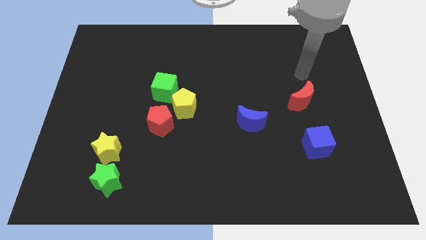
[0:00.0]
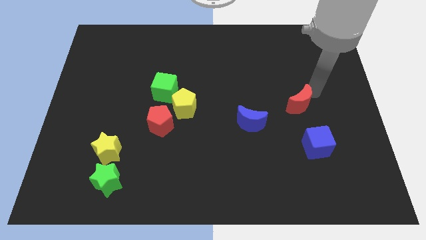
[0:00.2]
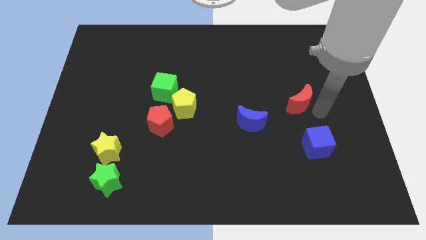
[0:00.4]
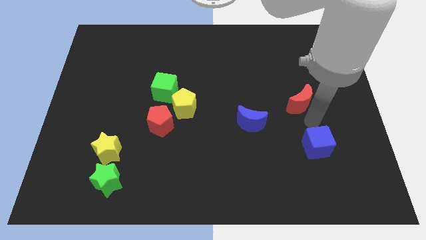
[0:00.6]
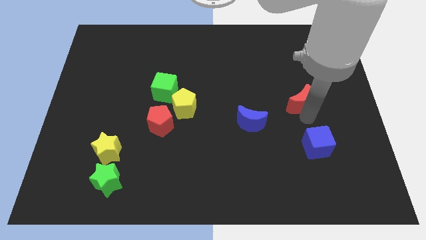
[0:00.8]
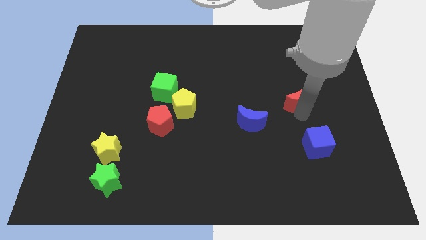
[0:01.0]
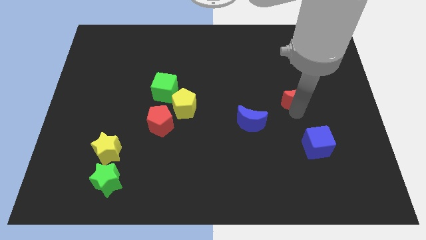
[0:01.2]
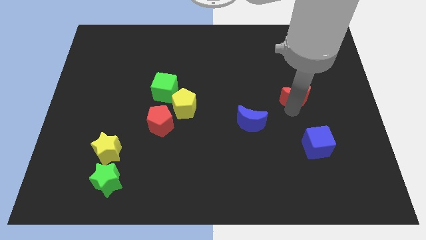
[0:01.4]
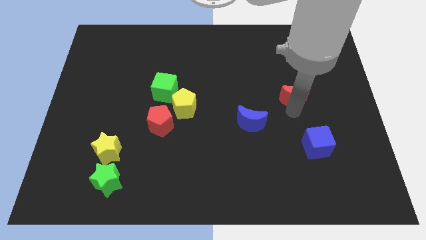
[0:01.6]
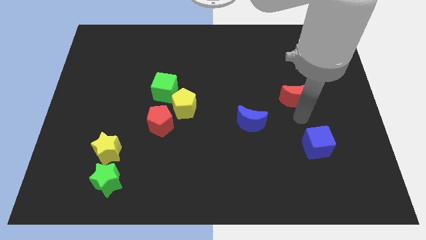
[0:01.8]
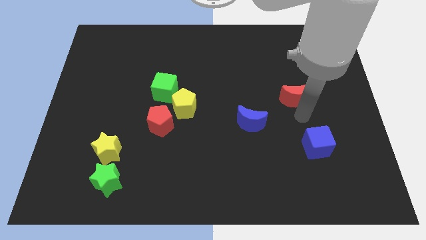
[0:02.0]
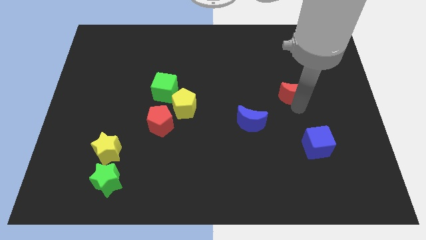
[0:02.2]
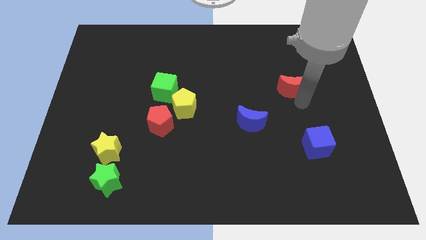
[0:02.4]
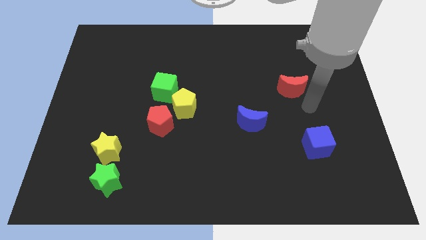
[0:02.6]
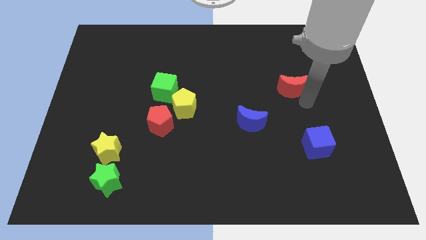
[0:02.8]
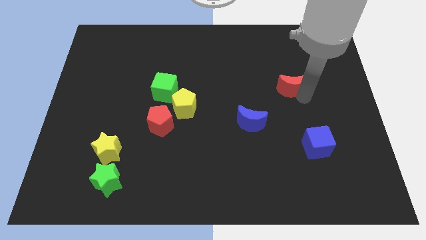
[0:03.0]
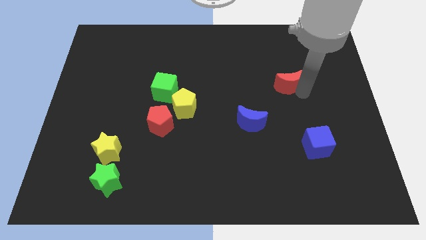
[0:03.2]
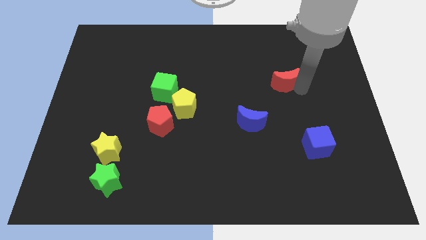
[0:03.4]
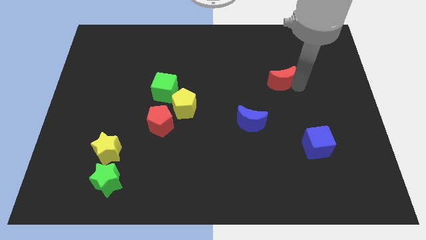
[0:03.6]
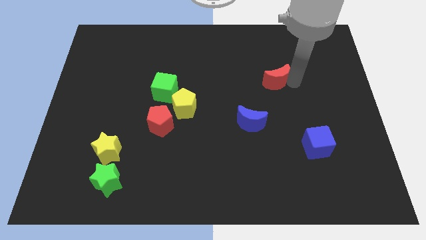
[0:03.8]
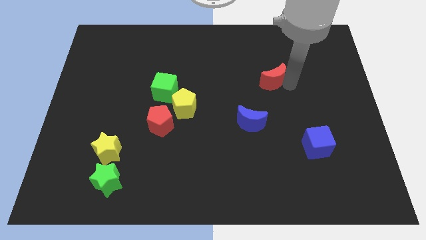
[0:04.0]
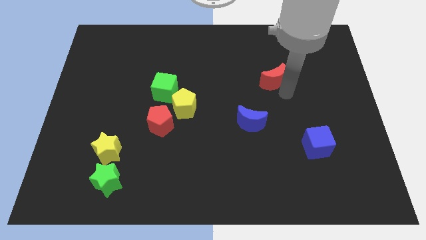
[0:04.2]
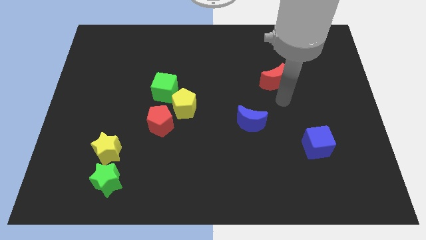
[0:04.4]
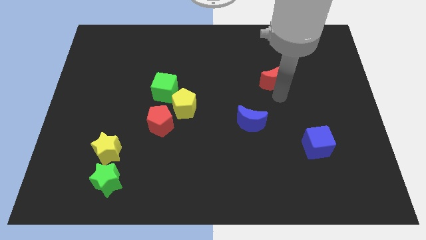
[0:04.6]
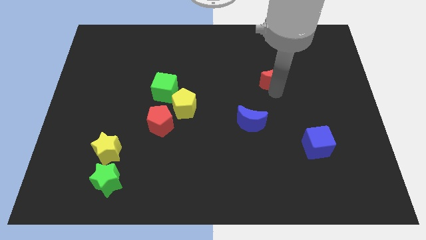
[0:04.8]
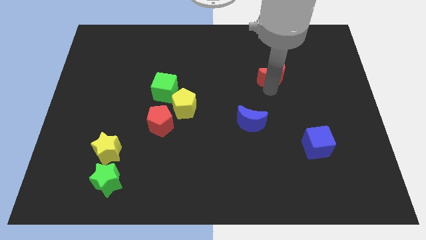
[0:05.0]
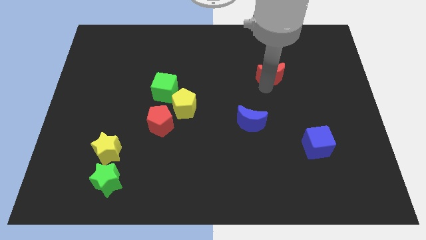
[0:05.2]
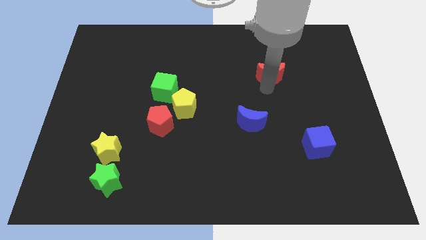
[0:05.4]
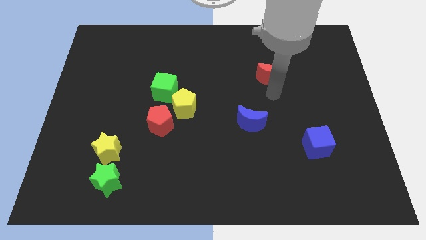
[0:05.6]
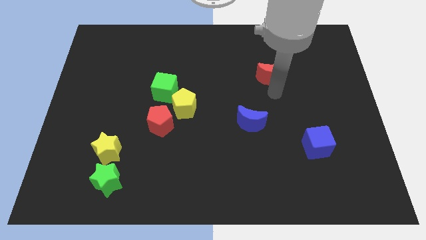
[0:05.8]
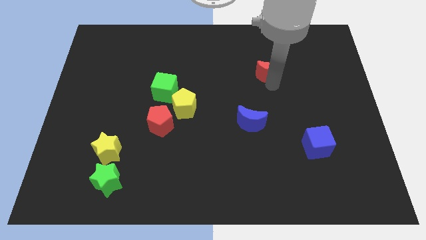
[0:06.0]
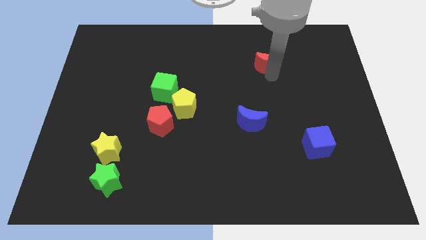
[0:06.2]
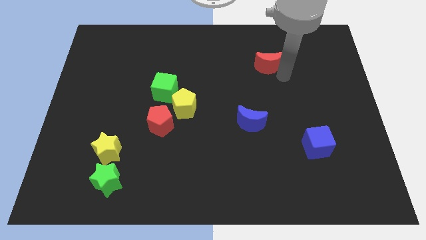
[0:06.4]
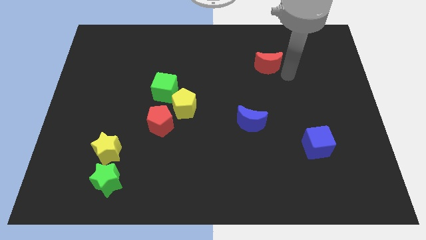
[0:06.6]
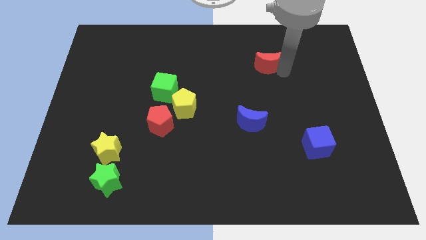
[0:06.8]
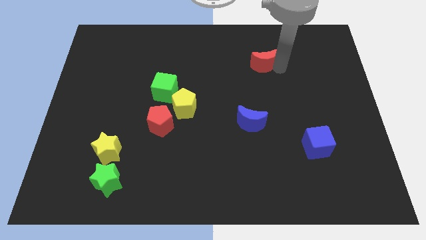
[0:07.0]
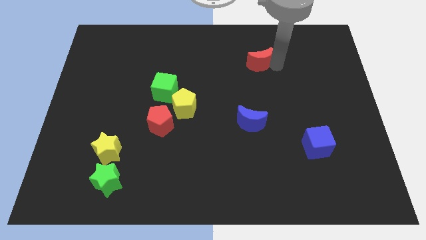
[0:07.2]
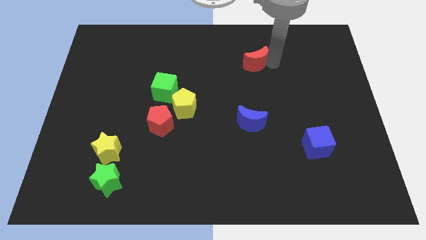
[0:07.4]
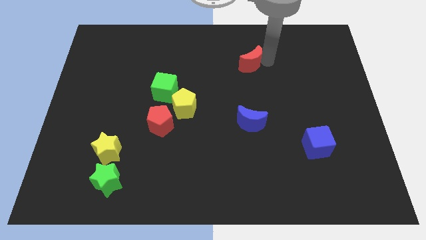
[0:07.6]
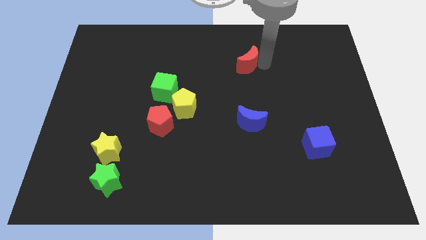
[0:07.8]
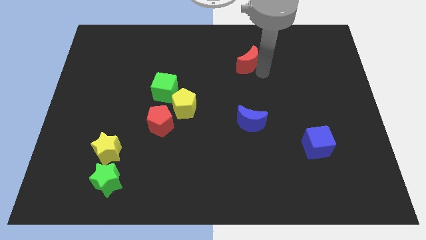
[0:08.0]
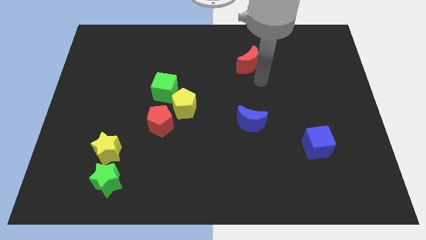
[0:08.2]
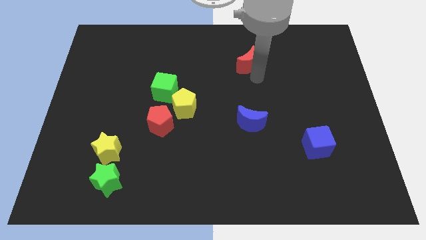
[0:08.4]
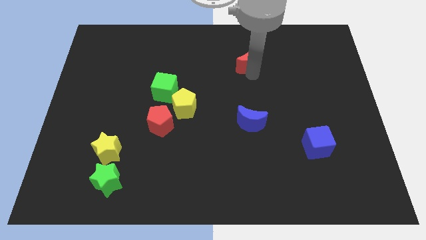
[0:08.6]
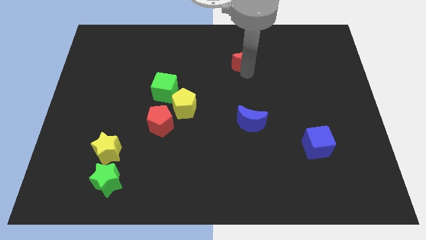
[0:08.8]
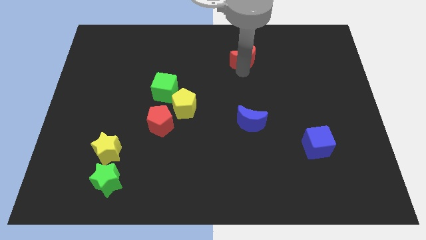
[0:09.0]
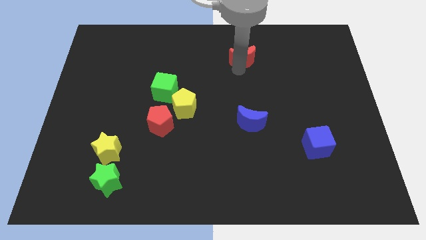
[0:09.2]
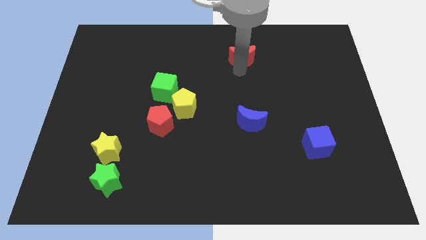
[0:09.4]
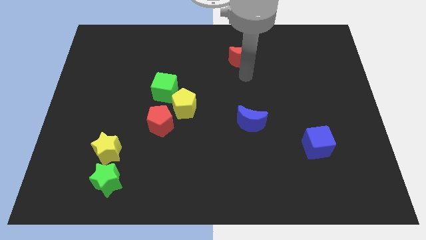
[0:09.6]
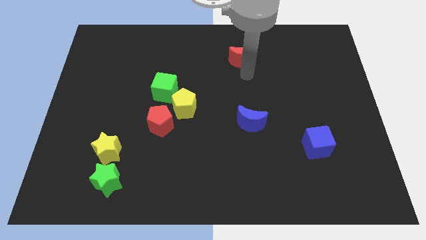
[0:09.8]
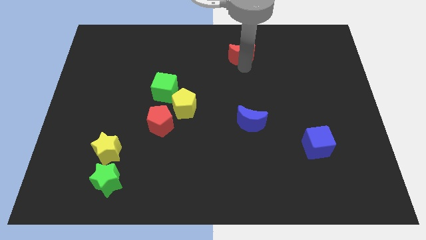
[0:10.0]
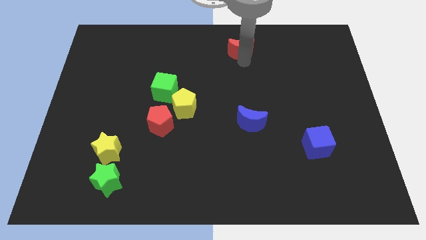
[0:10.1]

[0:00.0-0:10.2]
slide the red moon to the top
